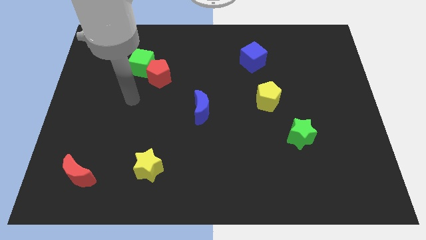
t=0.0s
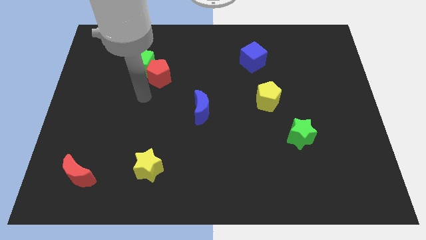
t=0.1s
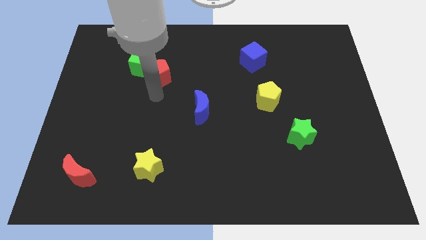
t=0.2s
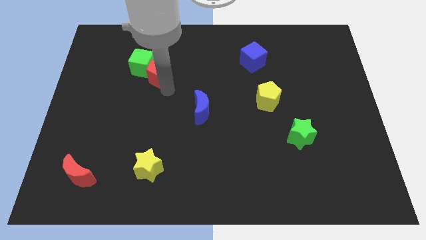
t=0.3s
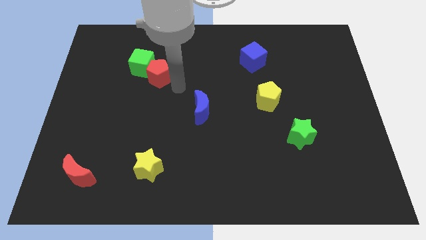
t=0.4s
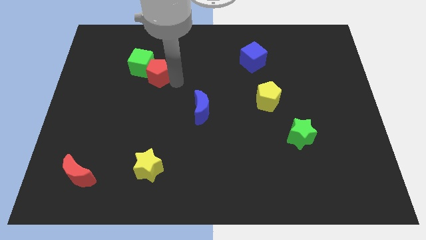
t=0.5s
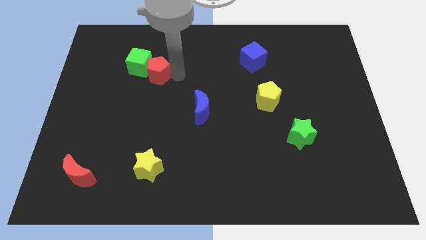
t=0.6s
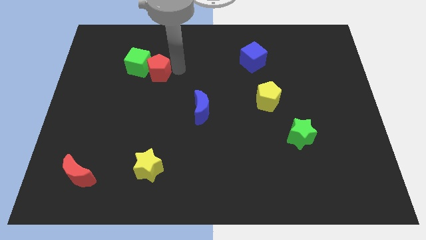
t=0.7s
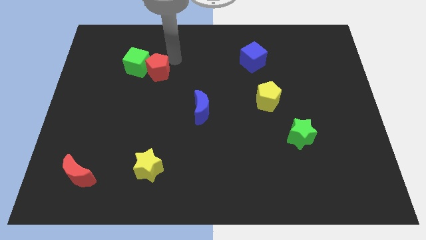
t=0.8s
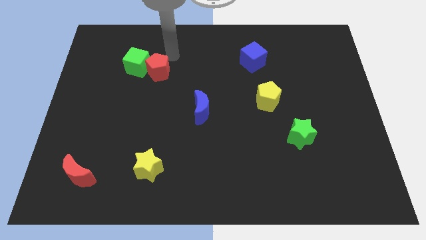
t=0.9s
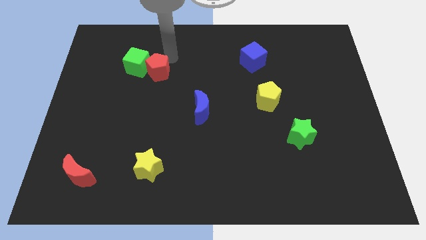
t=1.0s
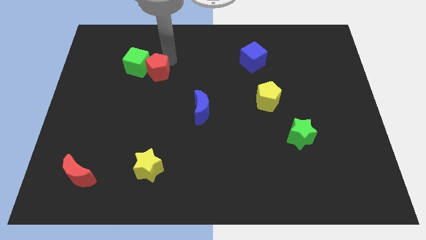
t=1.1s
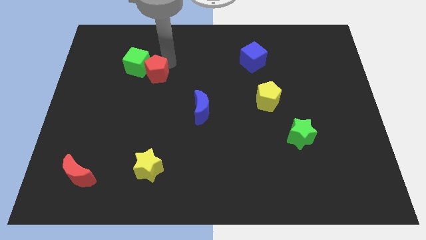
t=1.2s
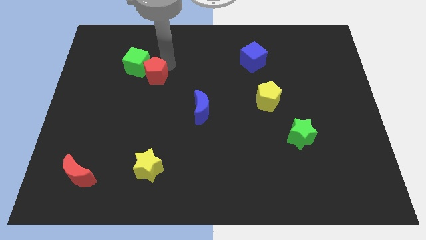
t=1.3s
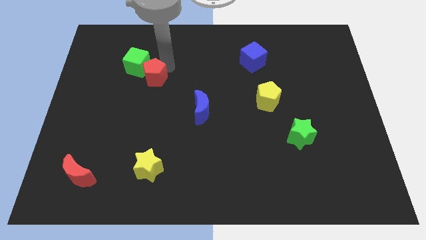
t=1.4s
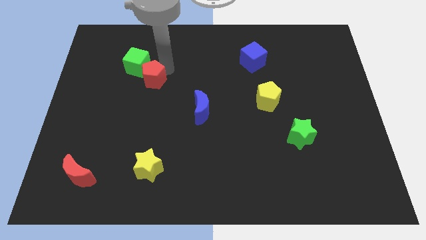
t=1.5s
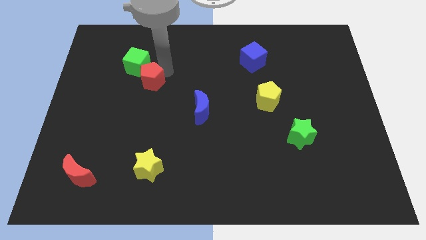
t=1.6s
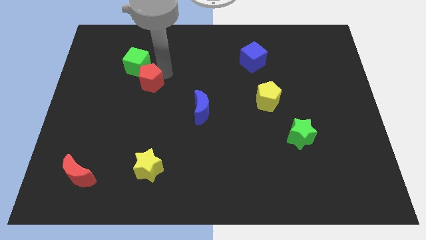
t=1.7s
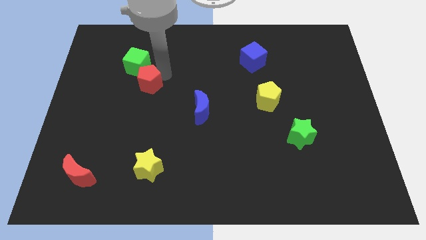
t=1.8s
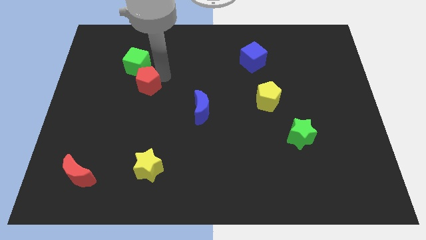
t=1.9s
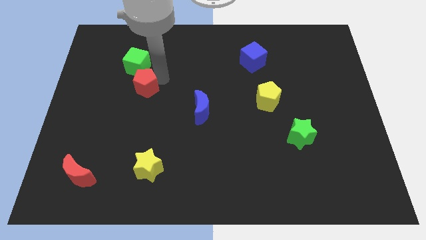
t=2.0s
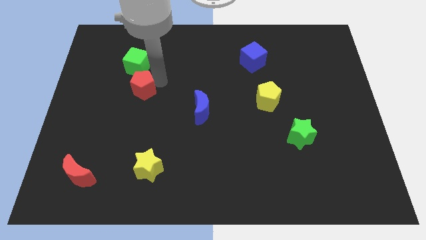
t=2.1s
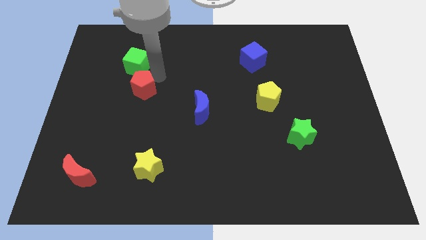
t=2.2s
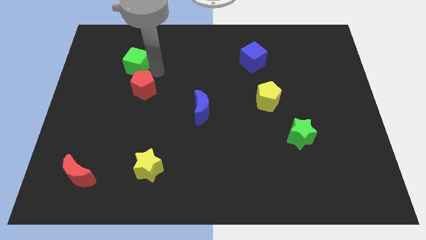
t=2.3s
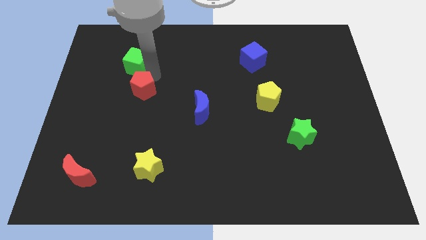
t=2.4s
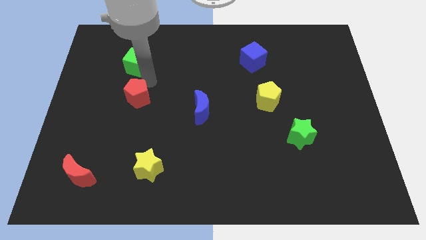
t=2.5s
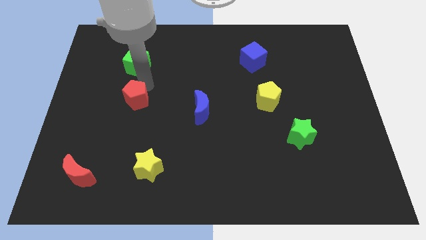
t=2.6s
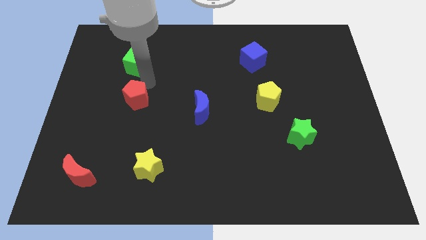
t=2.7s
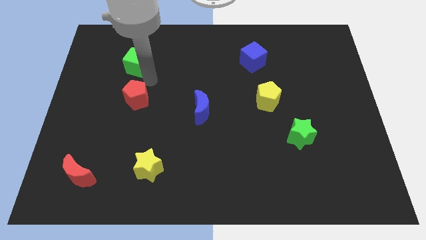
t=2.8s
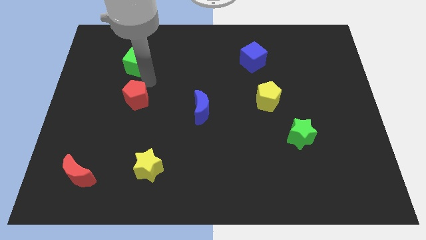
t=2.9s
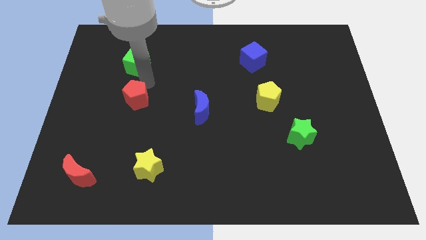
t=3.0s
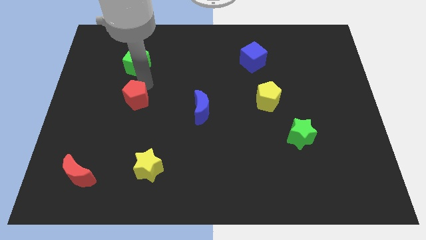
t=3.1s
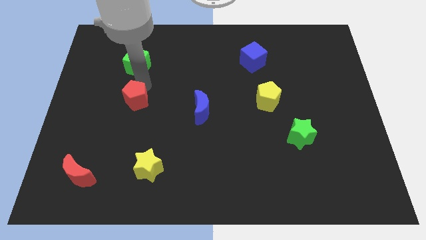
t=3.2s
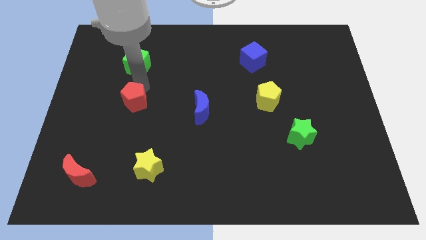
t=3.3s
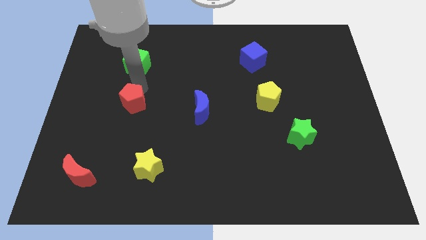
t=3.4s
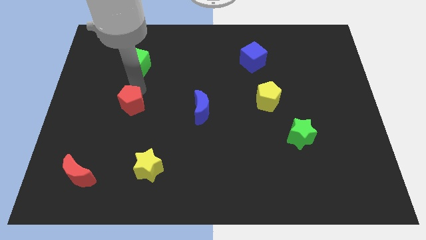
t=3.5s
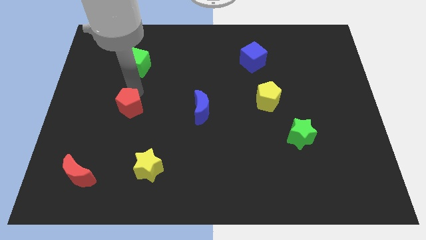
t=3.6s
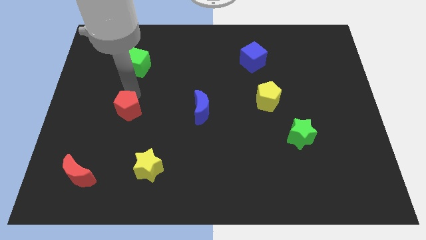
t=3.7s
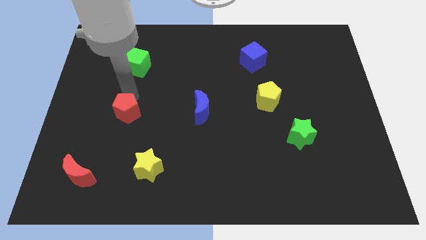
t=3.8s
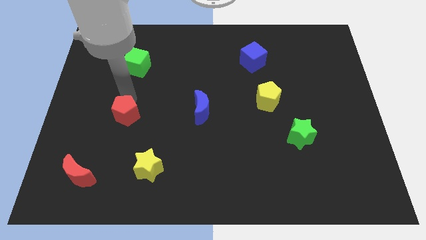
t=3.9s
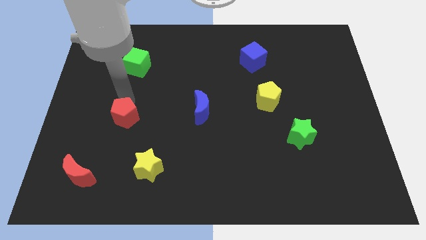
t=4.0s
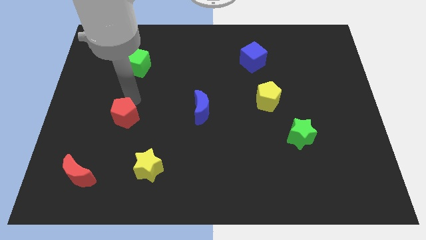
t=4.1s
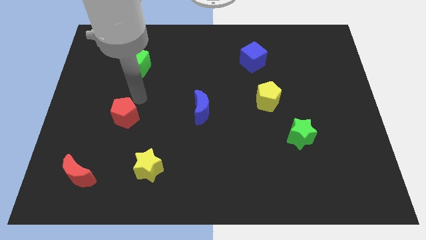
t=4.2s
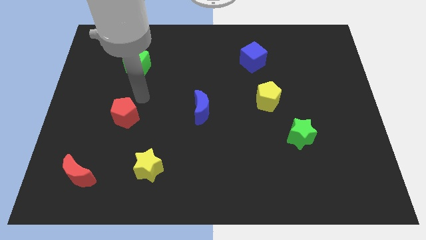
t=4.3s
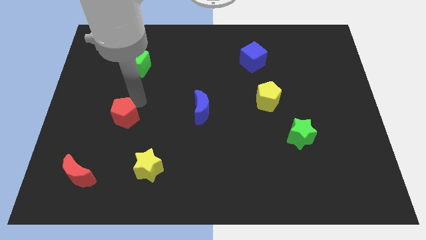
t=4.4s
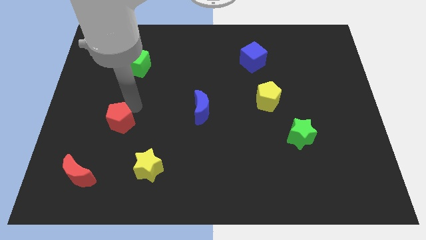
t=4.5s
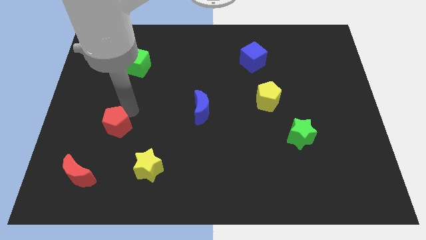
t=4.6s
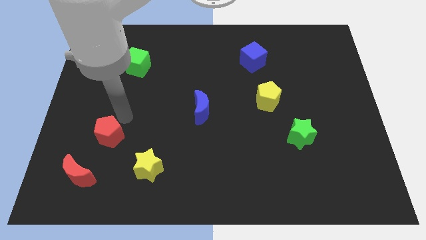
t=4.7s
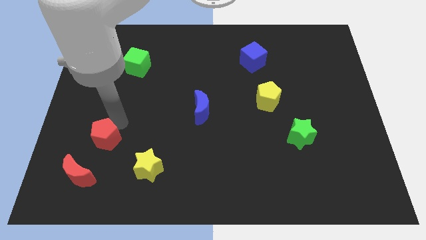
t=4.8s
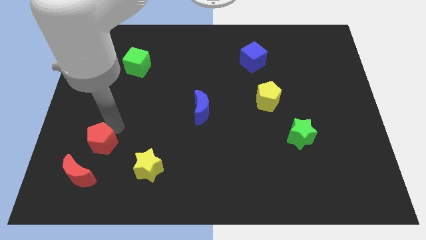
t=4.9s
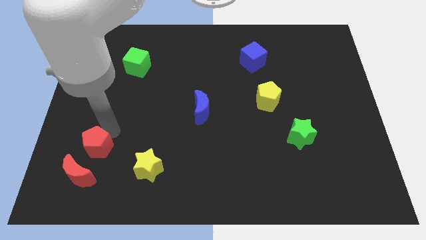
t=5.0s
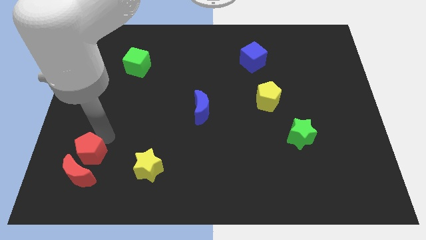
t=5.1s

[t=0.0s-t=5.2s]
move the red pentagon close to the red moon

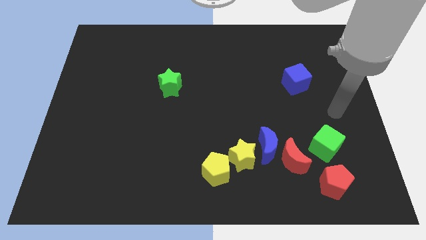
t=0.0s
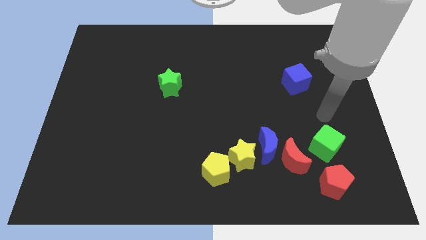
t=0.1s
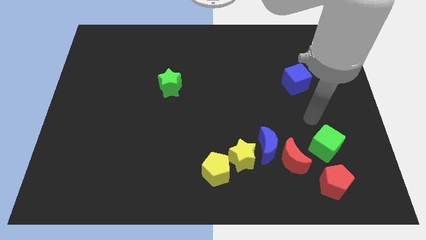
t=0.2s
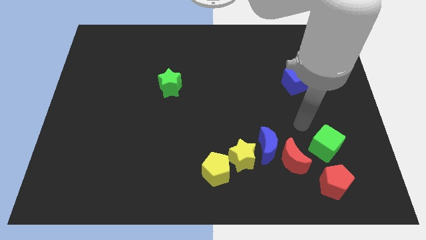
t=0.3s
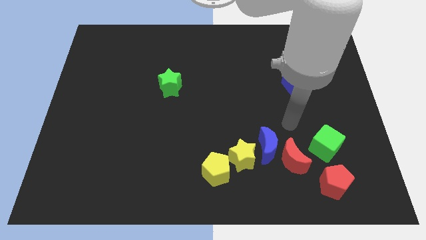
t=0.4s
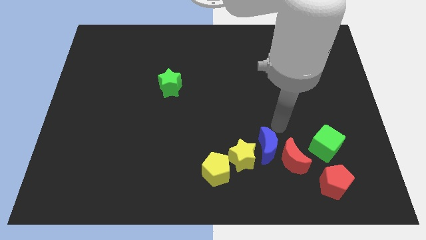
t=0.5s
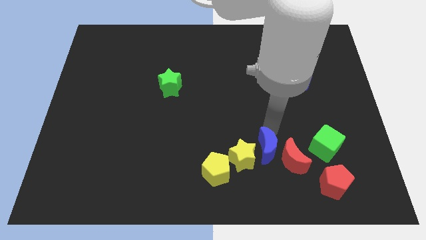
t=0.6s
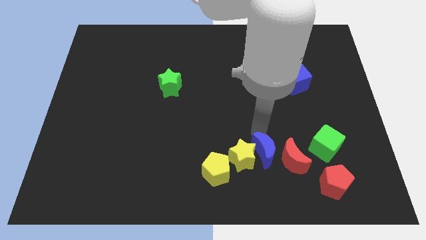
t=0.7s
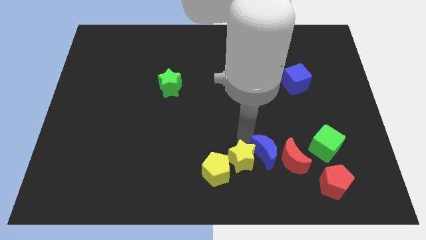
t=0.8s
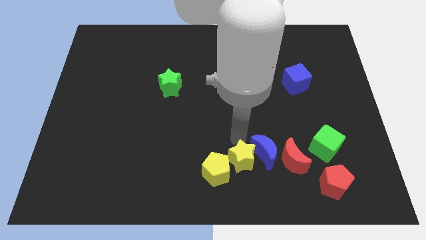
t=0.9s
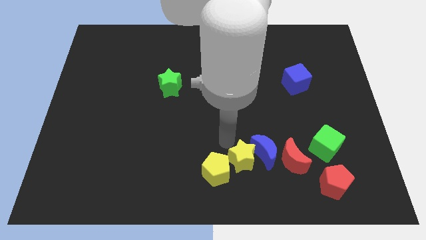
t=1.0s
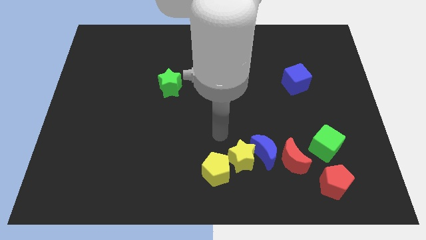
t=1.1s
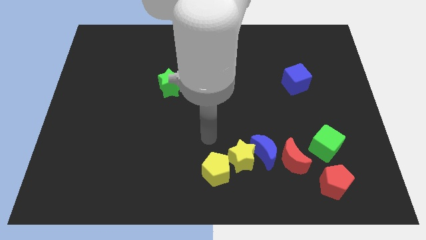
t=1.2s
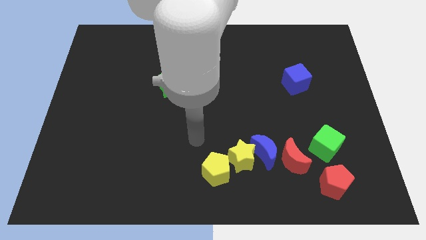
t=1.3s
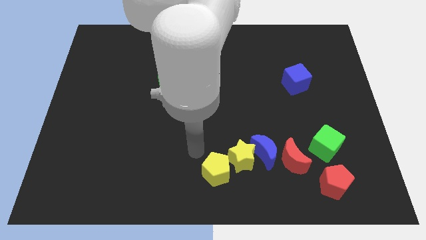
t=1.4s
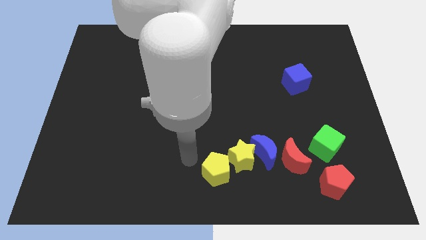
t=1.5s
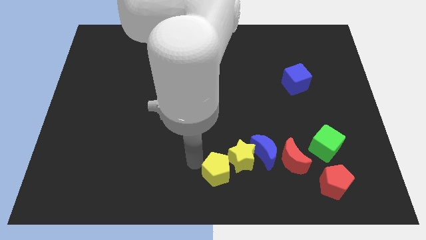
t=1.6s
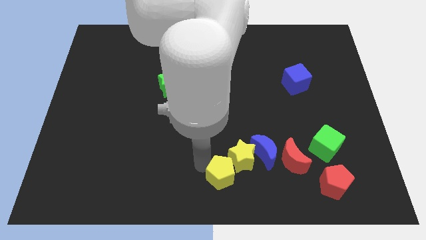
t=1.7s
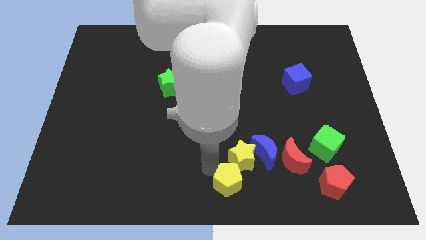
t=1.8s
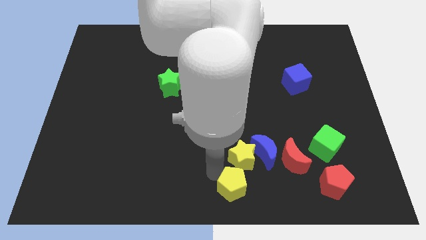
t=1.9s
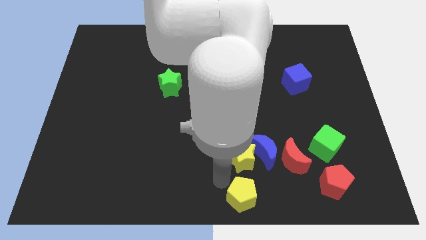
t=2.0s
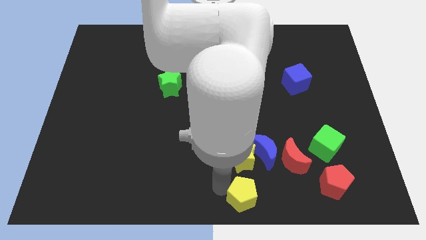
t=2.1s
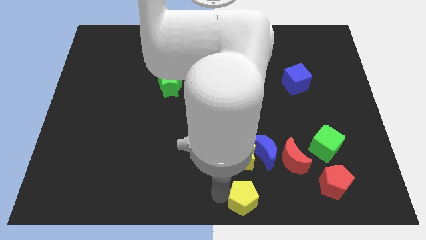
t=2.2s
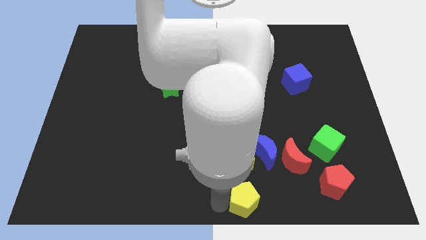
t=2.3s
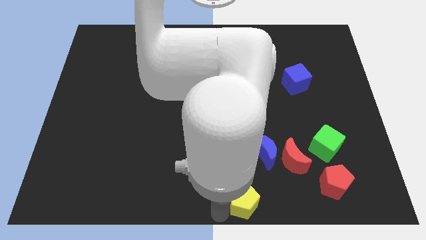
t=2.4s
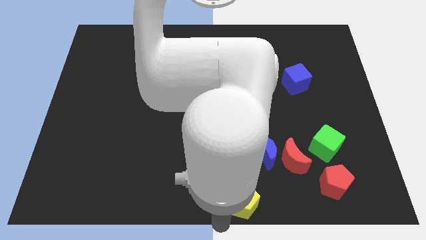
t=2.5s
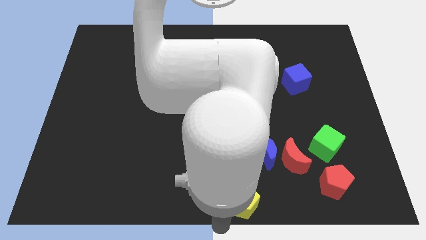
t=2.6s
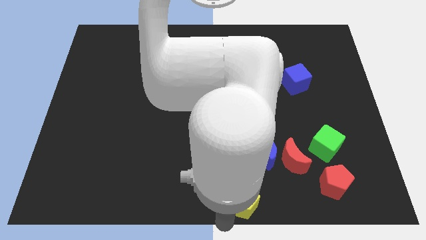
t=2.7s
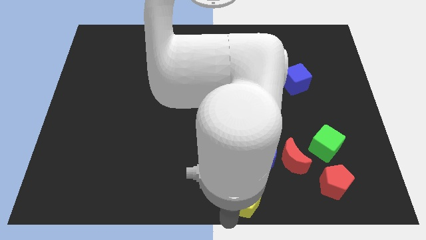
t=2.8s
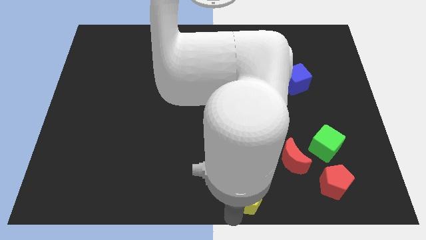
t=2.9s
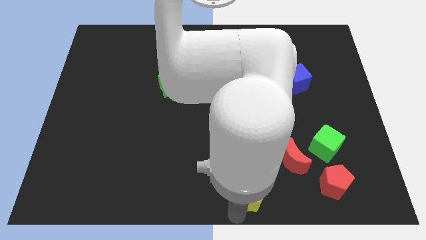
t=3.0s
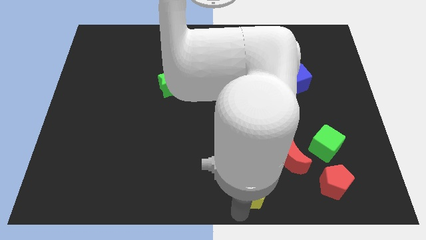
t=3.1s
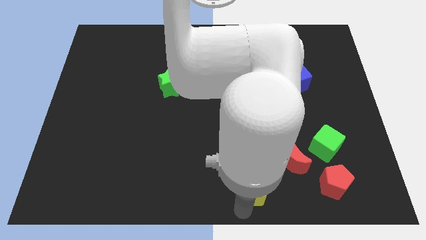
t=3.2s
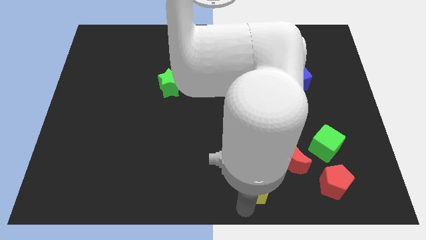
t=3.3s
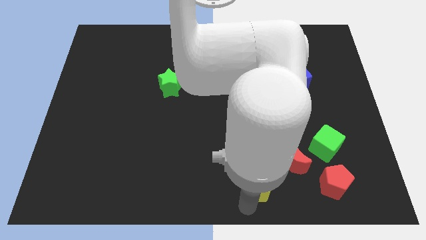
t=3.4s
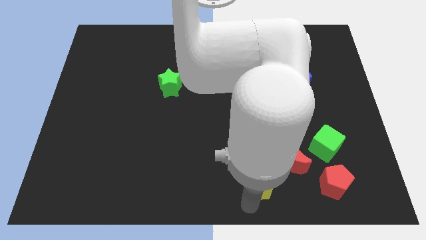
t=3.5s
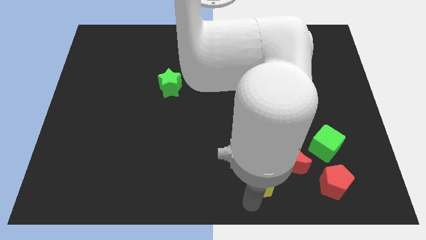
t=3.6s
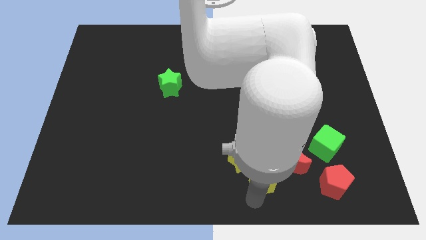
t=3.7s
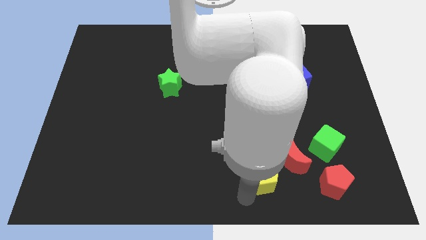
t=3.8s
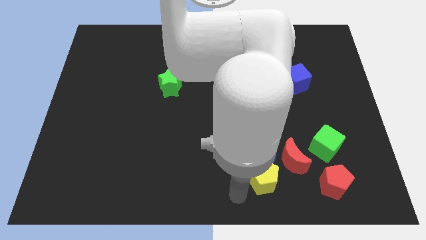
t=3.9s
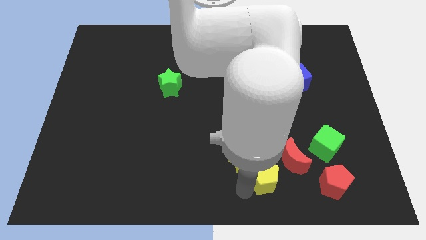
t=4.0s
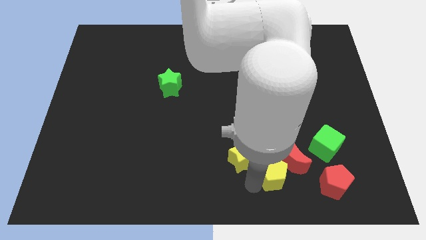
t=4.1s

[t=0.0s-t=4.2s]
slide the yellow pentagon next to the red moon
